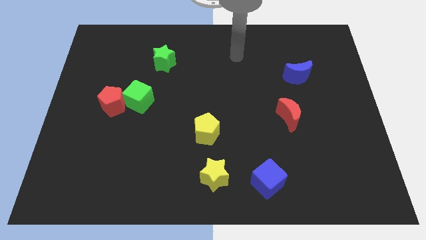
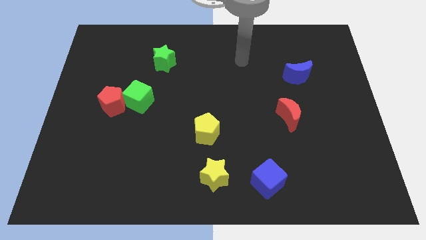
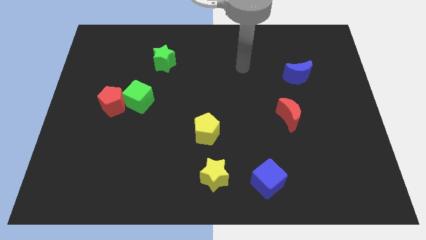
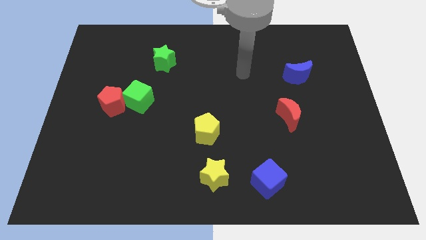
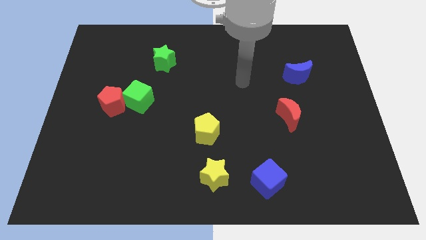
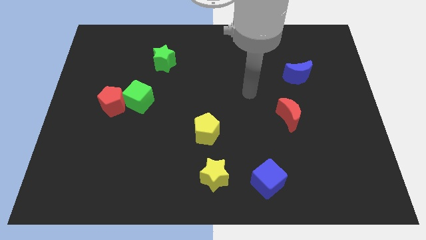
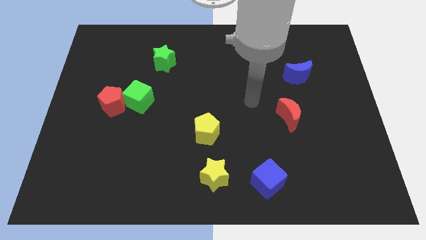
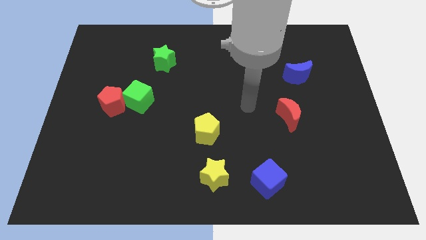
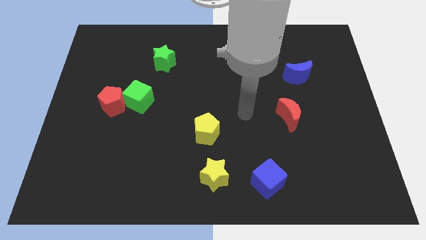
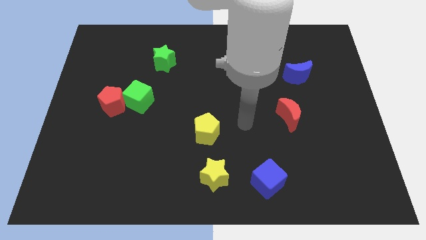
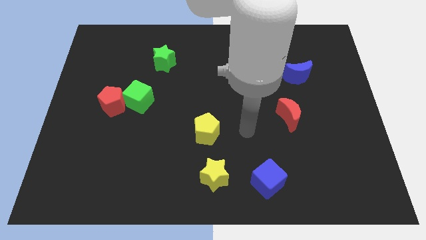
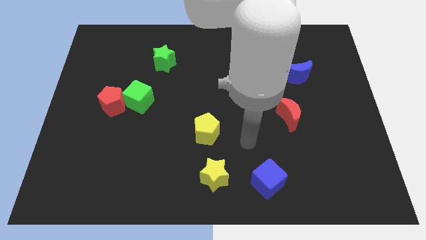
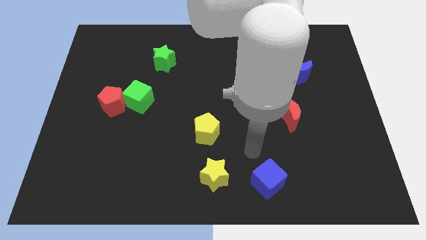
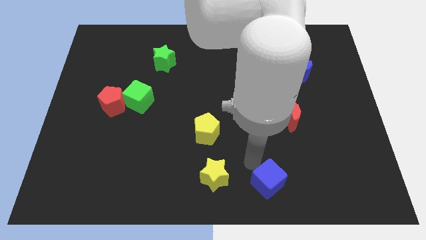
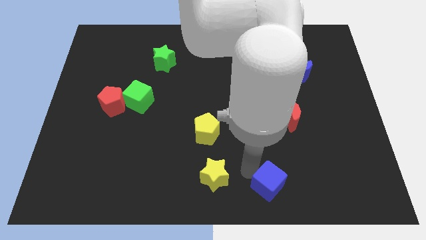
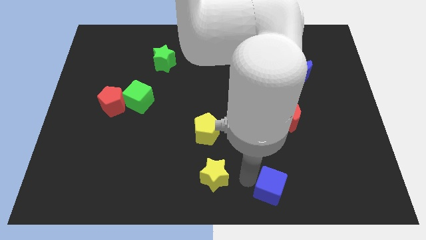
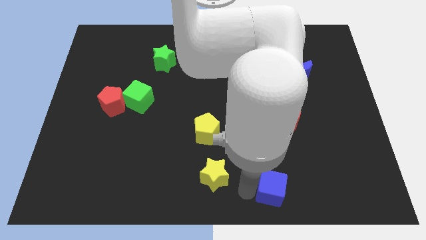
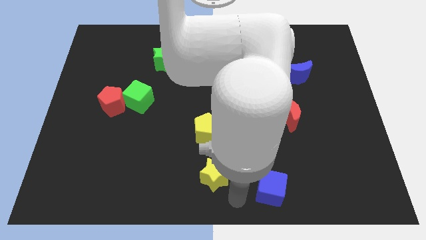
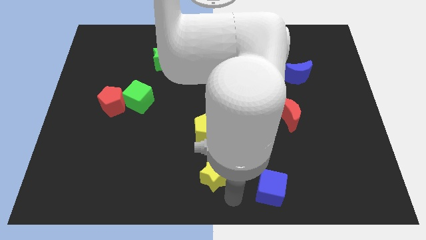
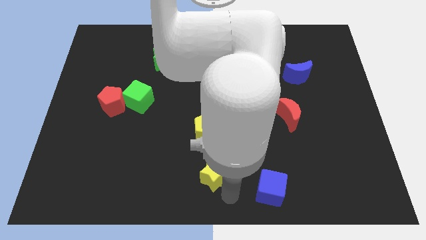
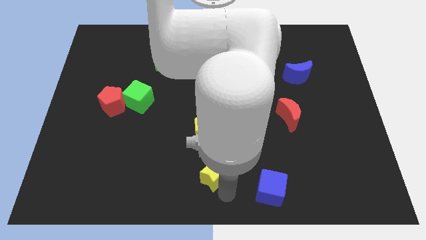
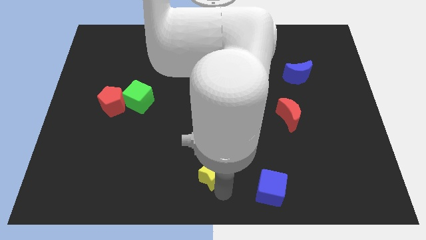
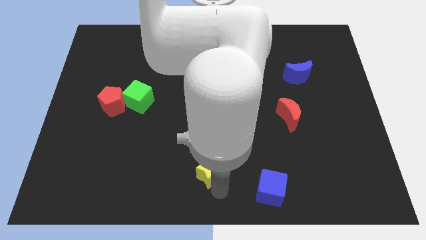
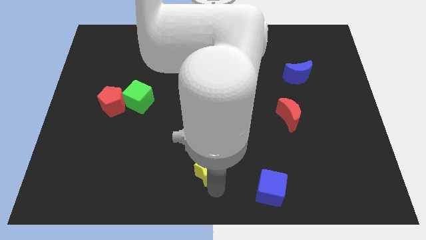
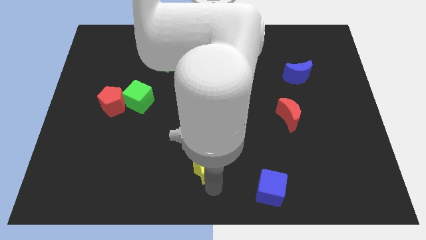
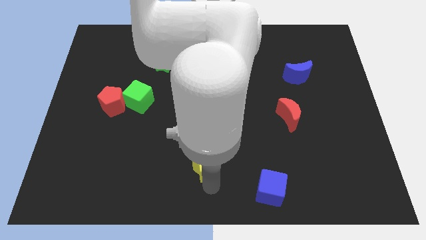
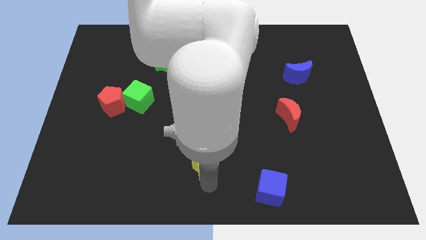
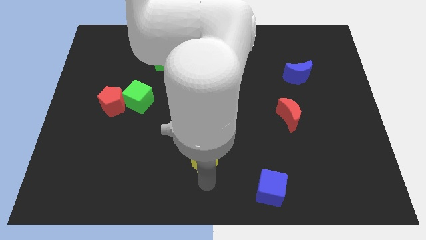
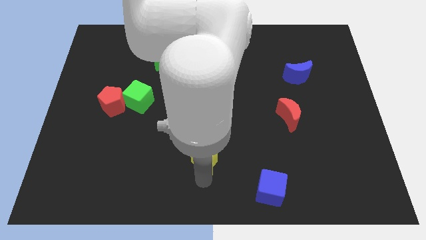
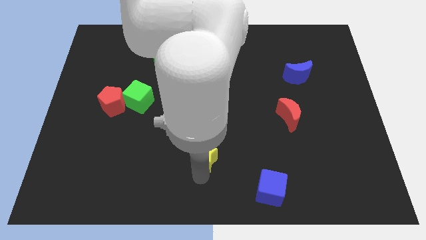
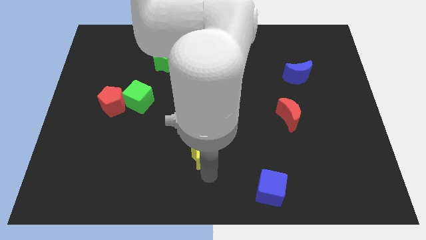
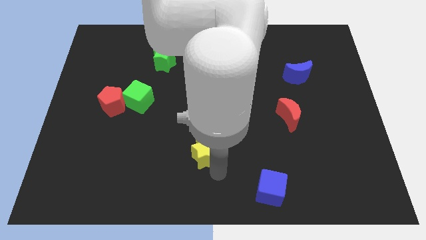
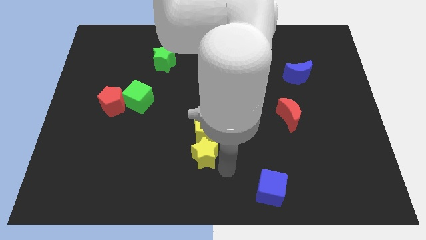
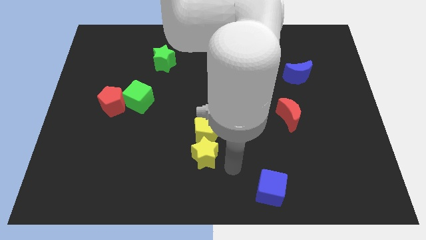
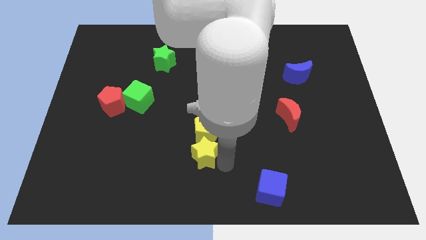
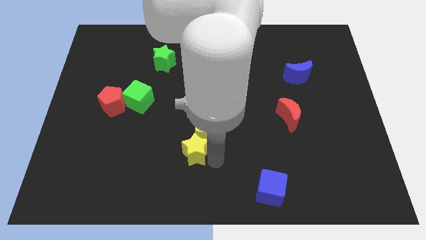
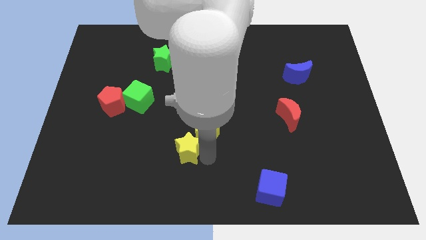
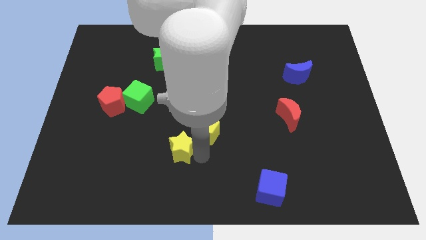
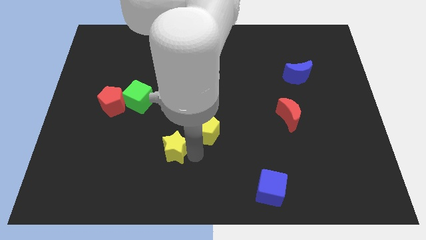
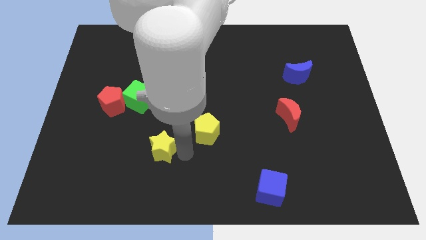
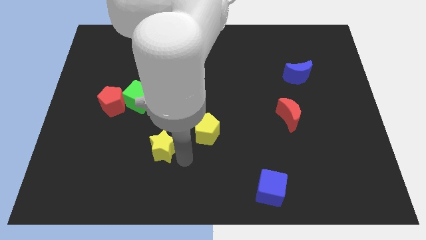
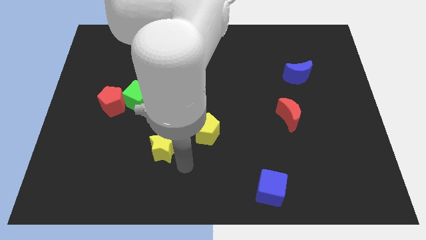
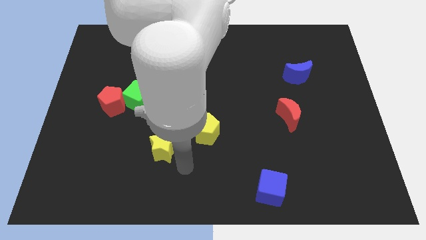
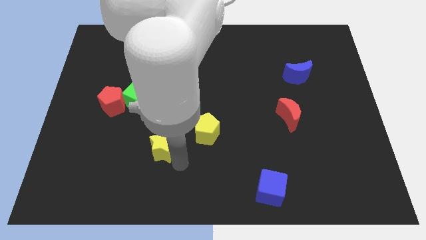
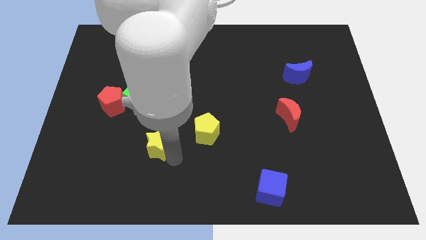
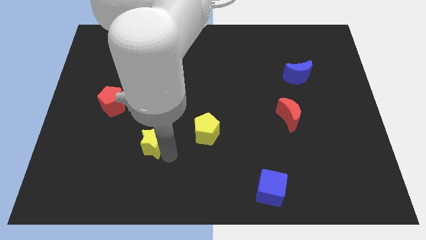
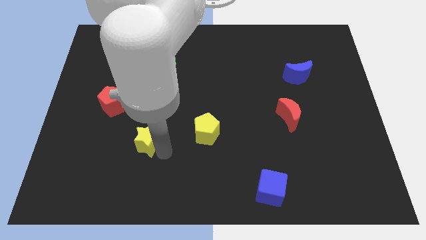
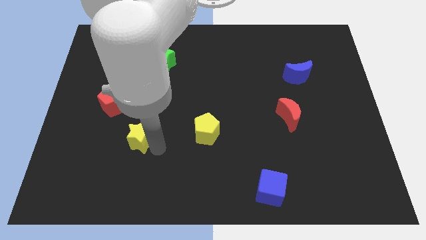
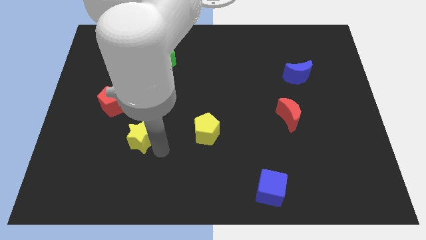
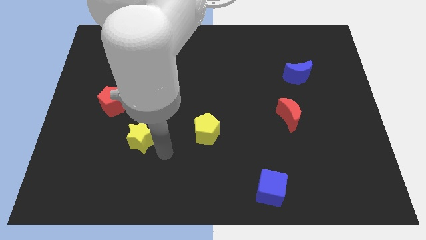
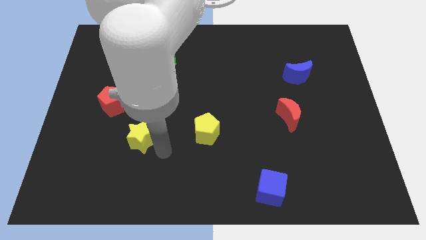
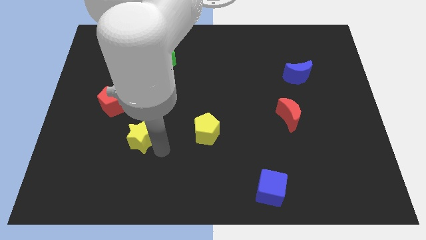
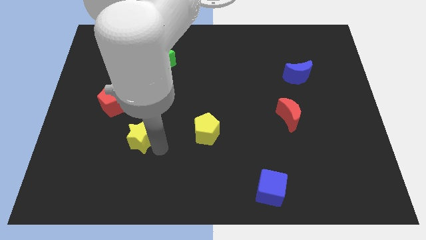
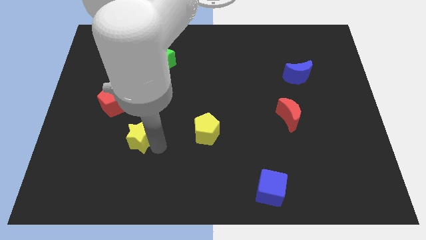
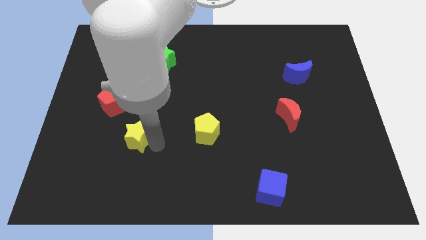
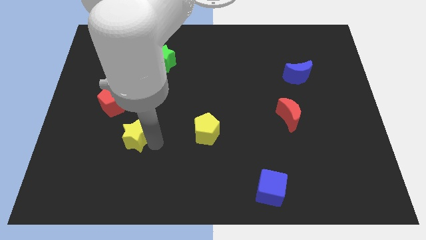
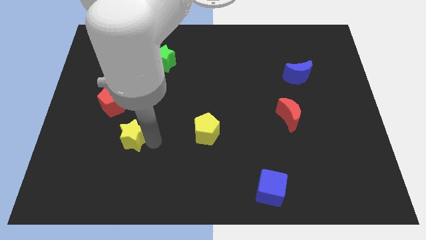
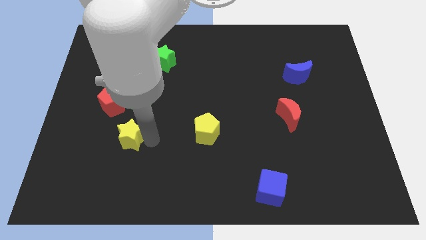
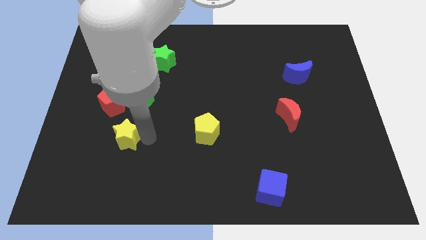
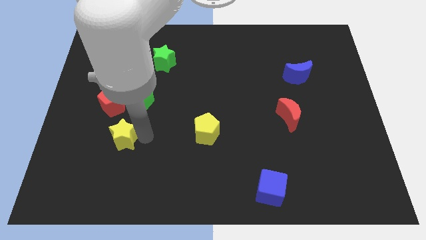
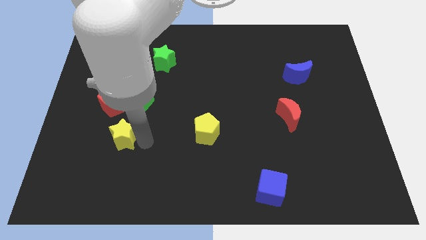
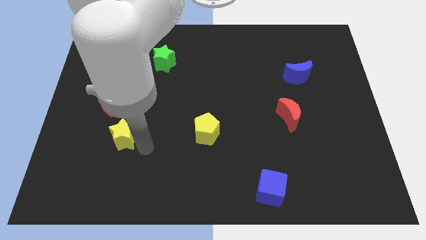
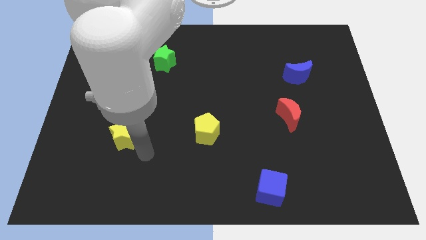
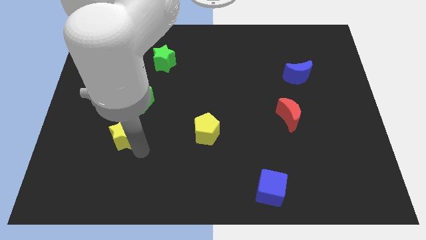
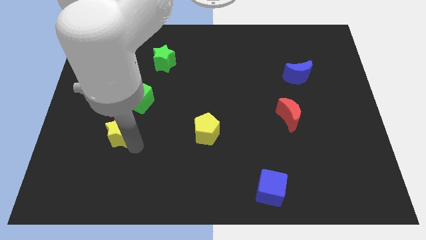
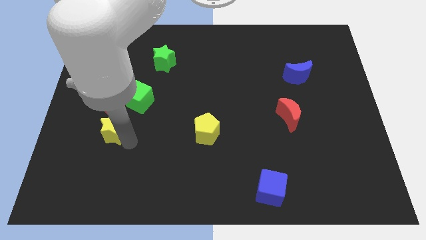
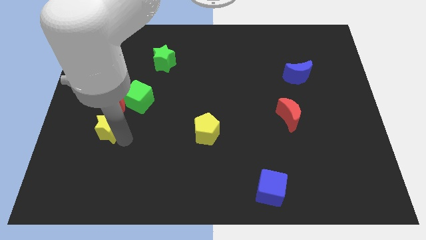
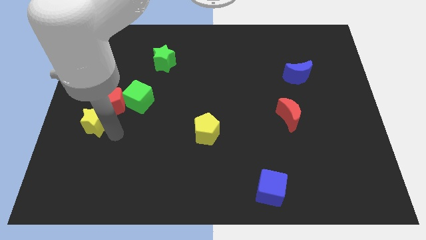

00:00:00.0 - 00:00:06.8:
put the yellow star to the center left
